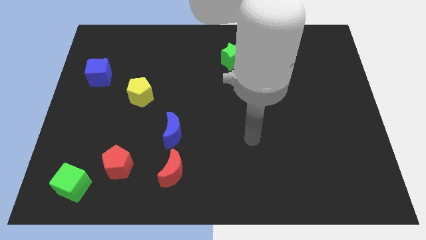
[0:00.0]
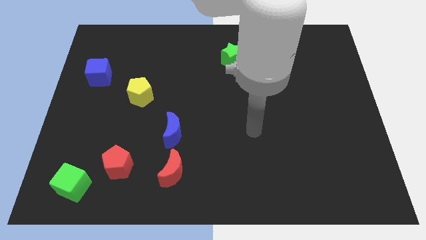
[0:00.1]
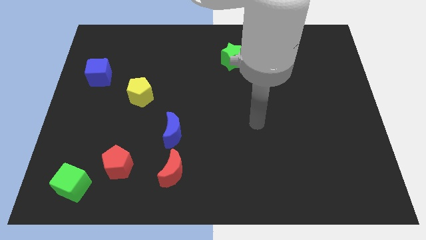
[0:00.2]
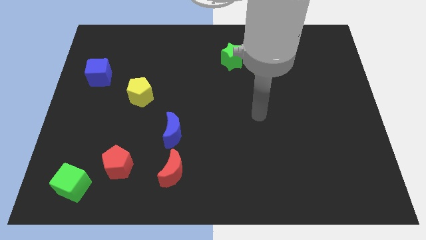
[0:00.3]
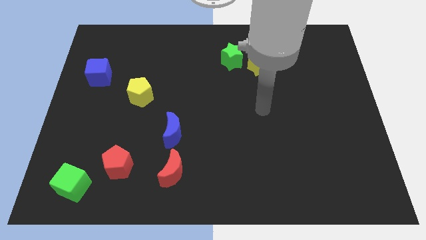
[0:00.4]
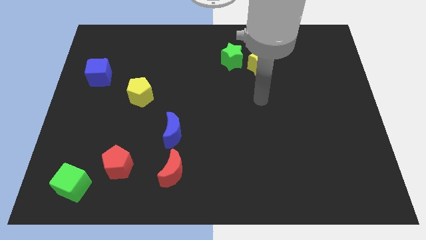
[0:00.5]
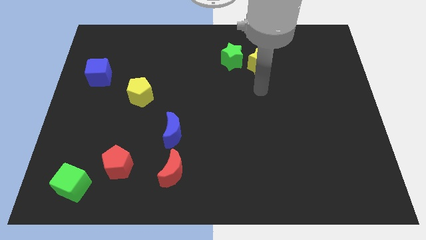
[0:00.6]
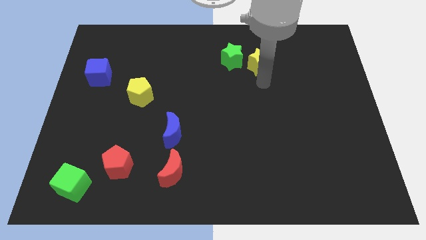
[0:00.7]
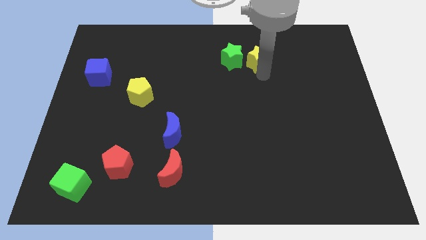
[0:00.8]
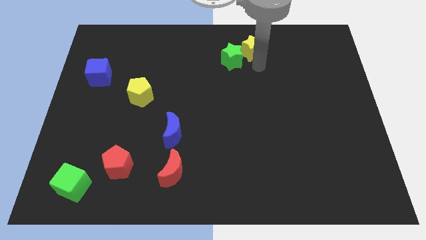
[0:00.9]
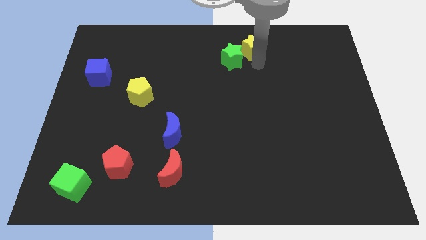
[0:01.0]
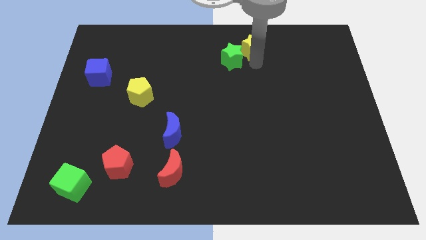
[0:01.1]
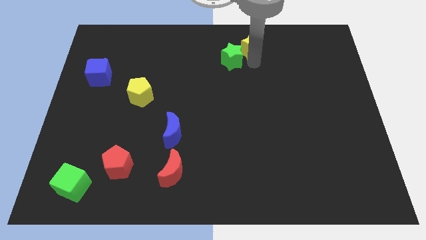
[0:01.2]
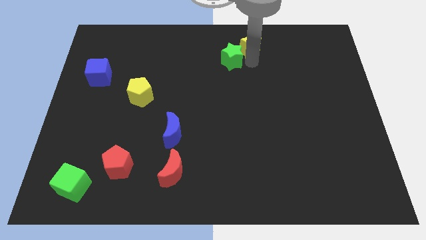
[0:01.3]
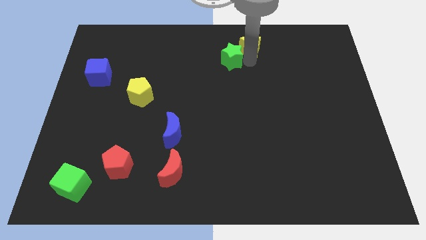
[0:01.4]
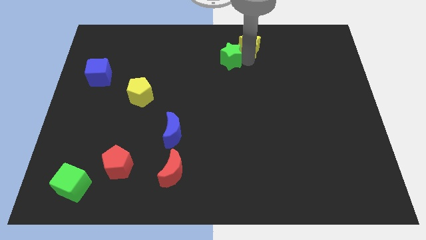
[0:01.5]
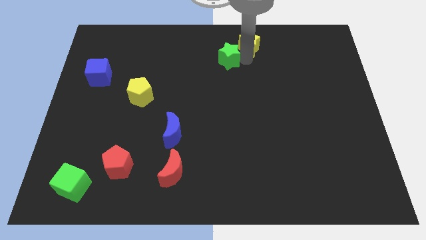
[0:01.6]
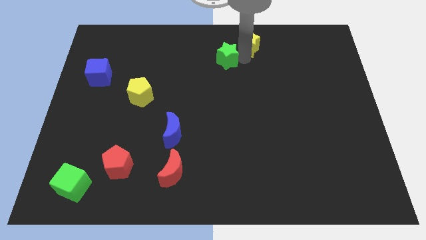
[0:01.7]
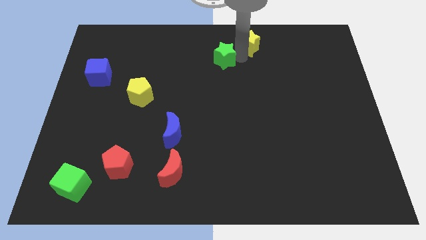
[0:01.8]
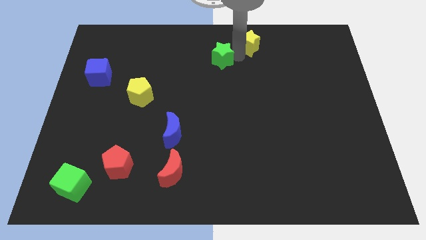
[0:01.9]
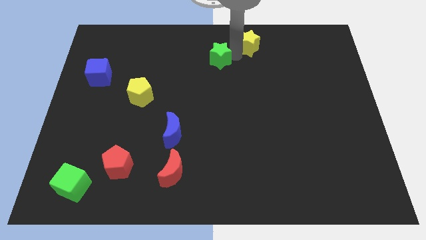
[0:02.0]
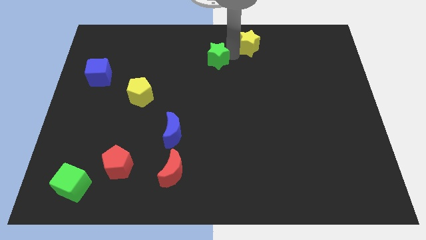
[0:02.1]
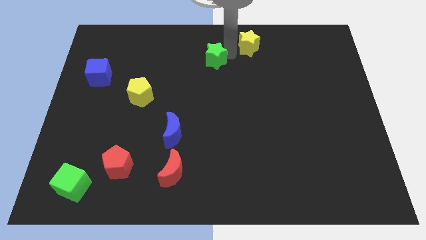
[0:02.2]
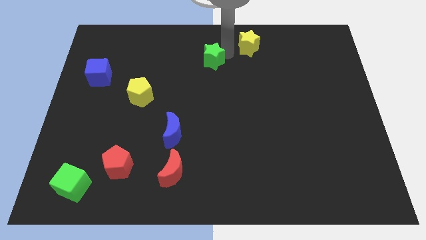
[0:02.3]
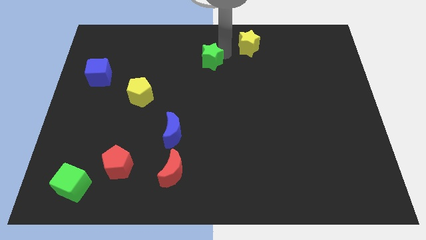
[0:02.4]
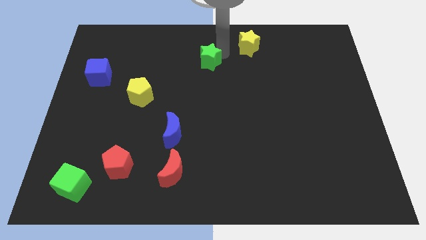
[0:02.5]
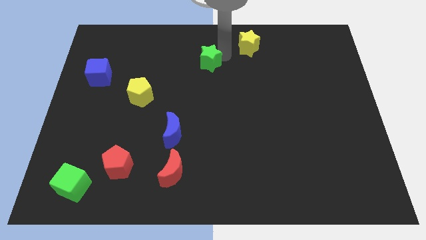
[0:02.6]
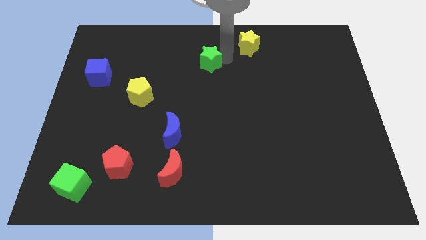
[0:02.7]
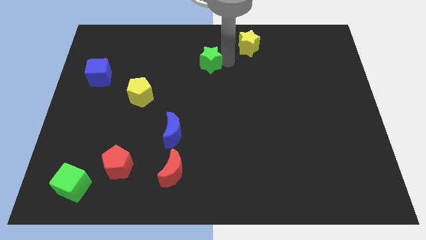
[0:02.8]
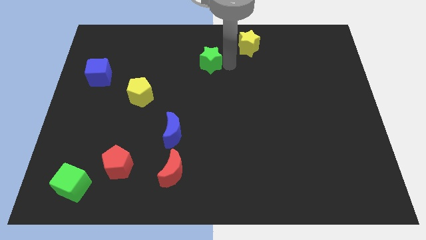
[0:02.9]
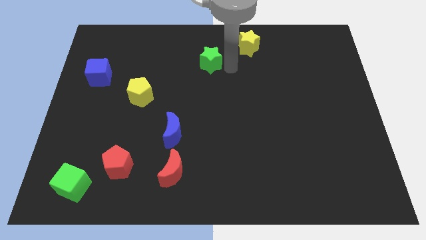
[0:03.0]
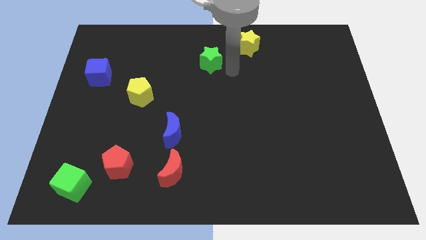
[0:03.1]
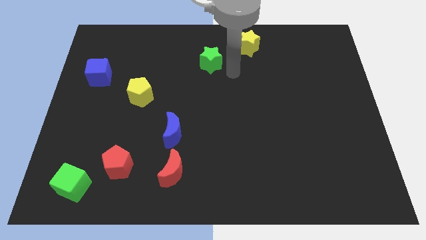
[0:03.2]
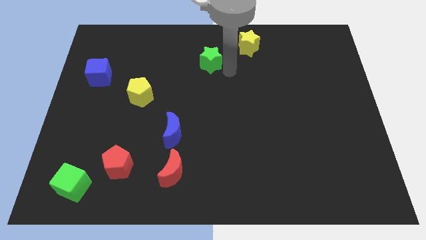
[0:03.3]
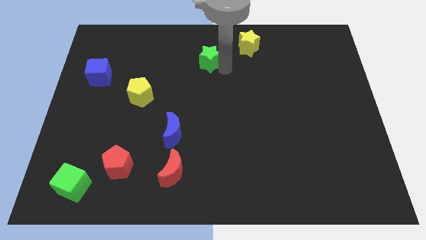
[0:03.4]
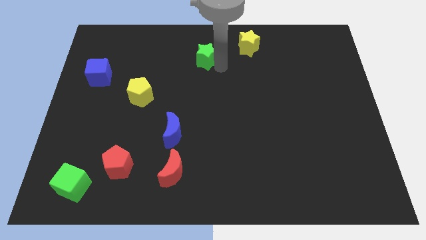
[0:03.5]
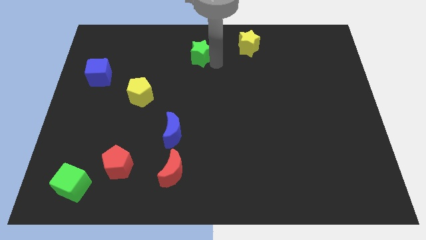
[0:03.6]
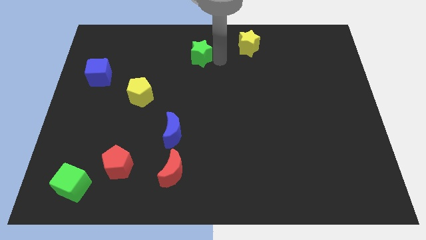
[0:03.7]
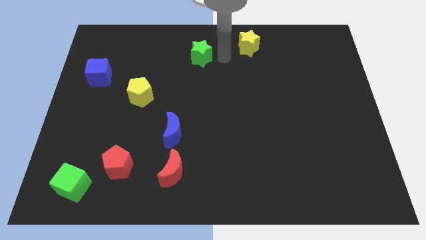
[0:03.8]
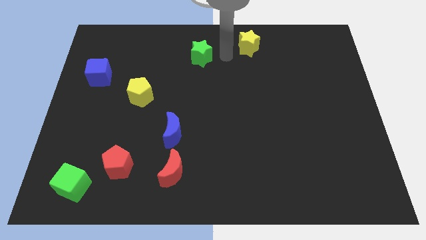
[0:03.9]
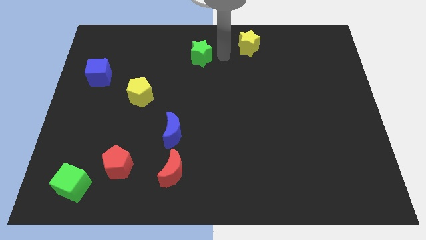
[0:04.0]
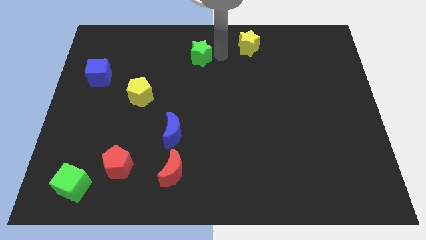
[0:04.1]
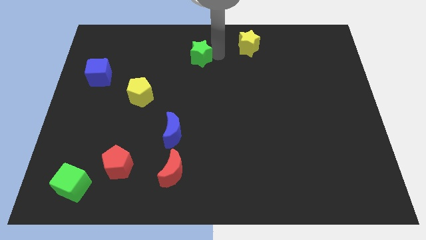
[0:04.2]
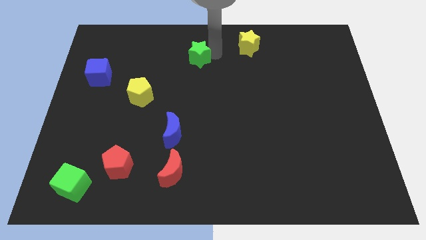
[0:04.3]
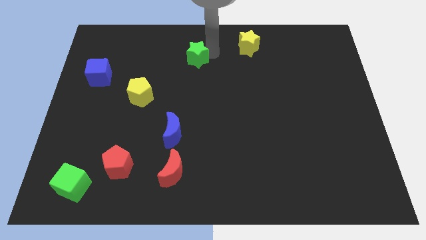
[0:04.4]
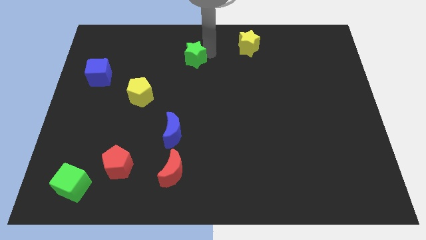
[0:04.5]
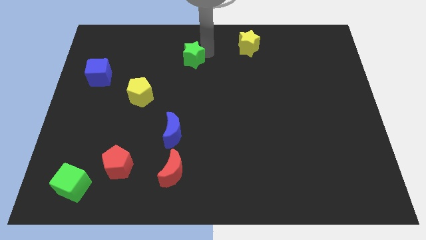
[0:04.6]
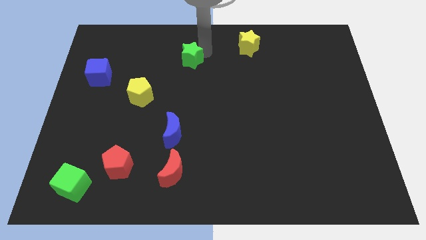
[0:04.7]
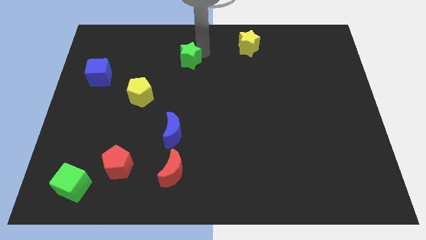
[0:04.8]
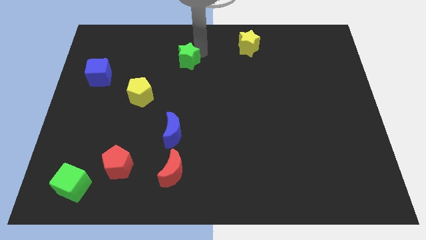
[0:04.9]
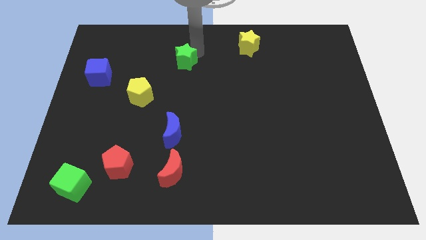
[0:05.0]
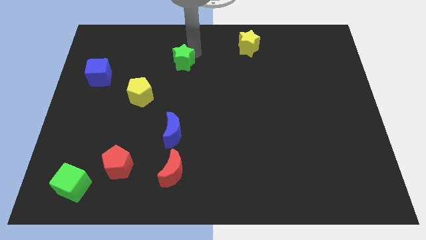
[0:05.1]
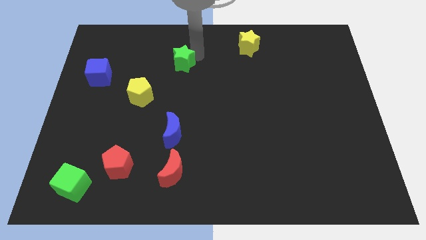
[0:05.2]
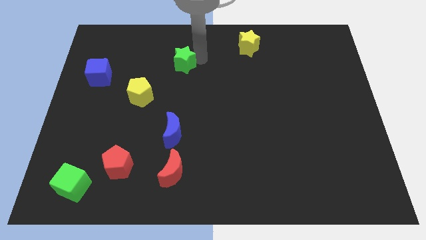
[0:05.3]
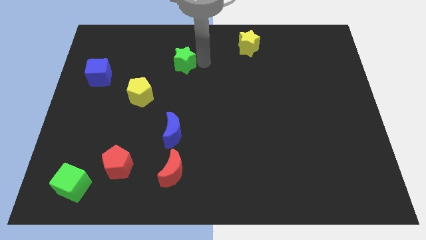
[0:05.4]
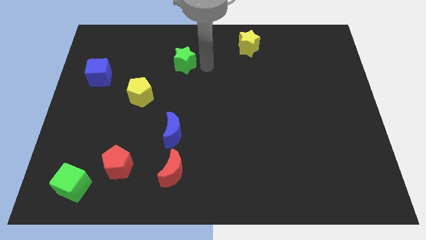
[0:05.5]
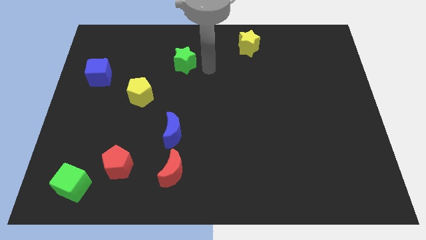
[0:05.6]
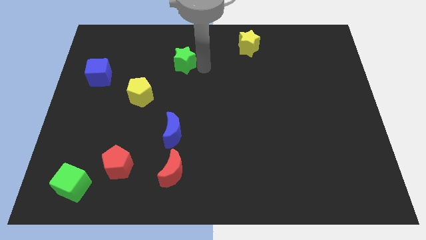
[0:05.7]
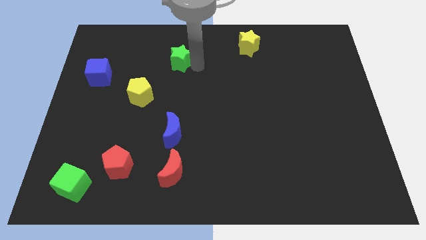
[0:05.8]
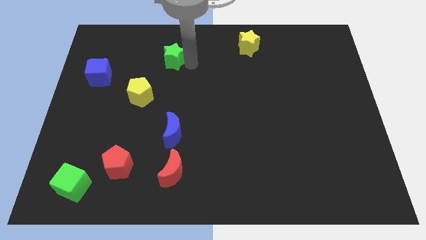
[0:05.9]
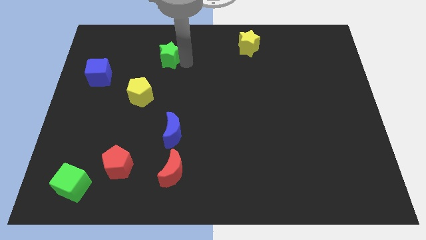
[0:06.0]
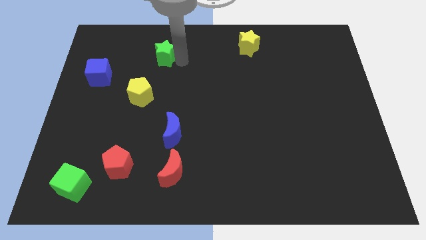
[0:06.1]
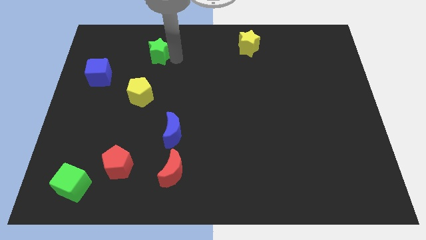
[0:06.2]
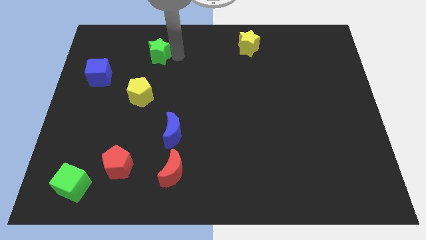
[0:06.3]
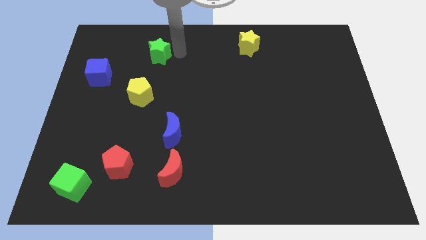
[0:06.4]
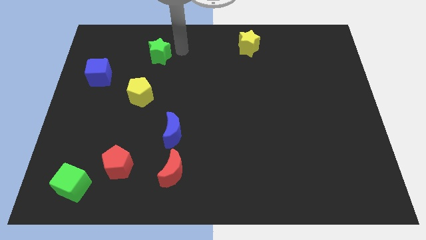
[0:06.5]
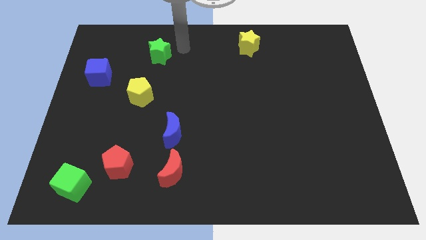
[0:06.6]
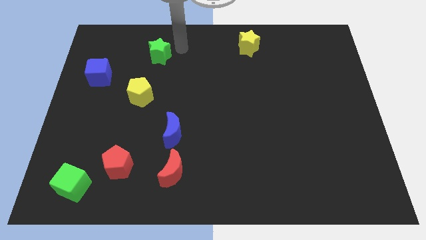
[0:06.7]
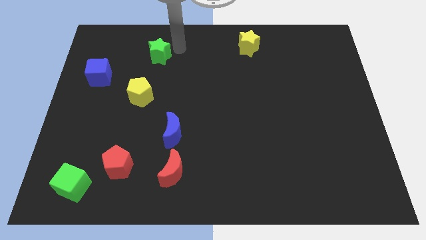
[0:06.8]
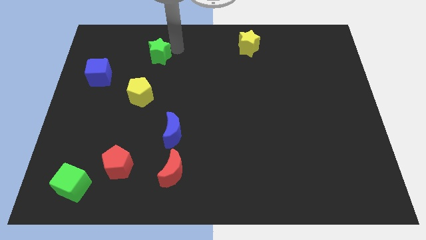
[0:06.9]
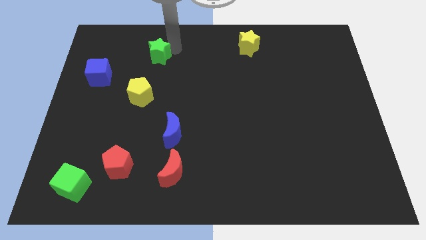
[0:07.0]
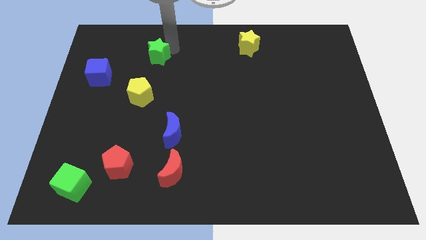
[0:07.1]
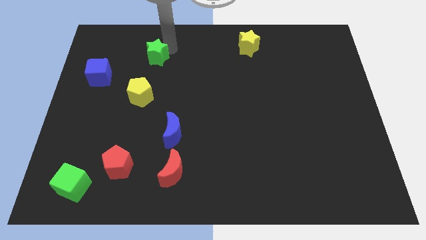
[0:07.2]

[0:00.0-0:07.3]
slide the green star to the left

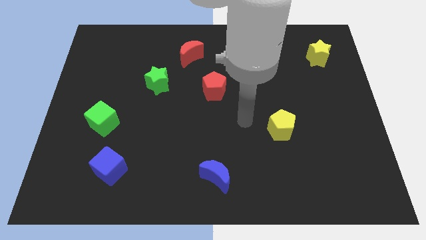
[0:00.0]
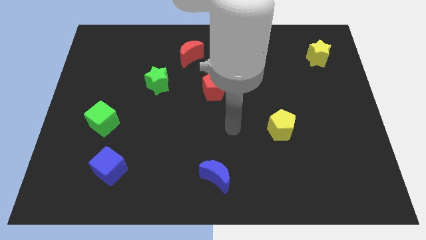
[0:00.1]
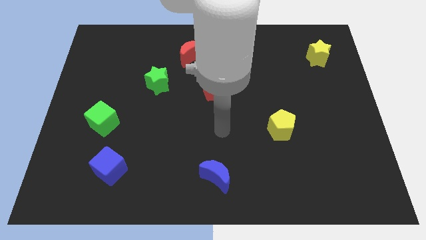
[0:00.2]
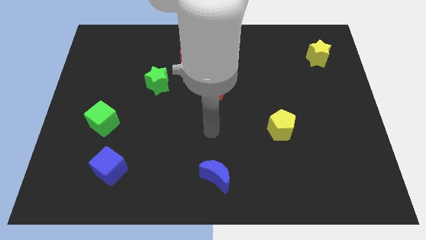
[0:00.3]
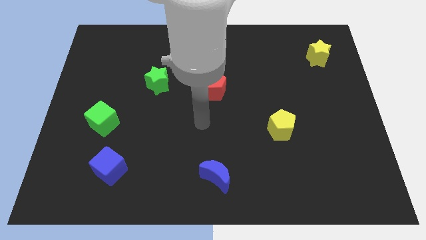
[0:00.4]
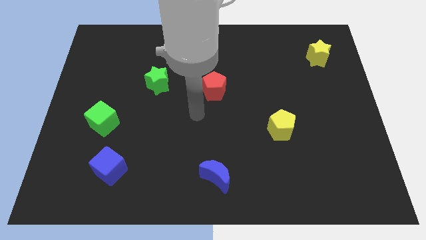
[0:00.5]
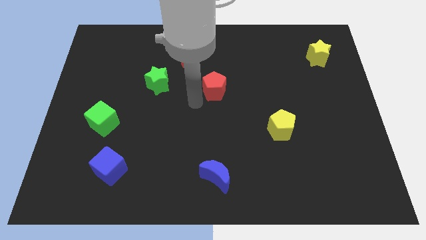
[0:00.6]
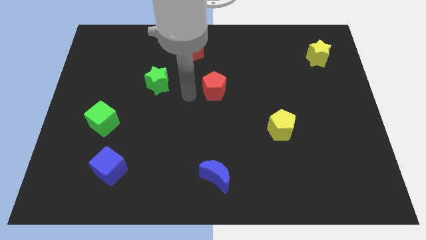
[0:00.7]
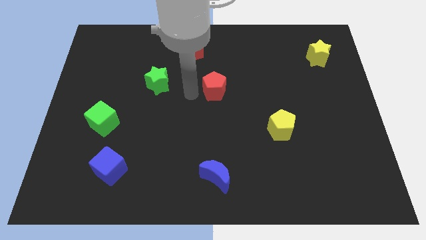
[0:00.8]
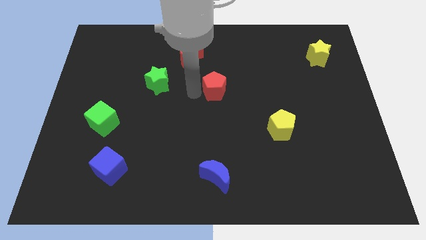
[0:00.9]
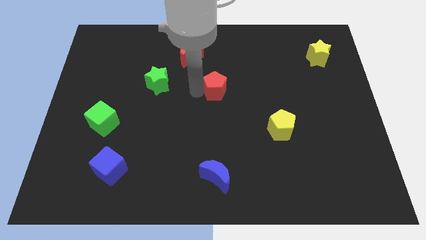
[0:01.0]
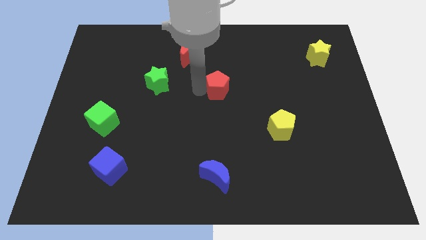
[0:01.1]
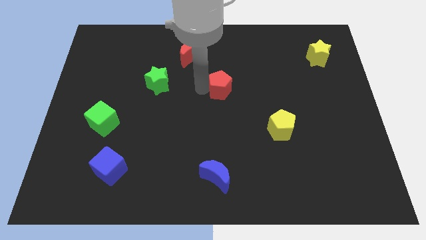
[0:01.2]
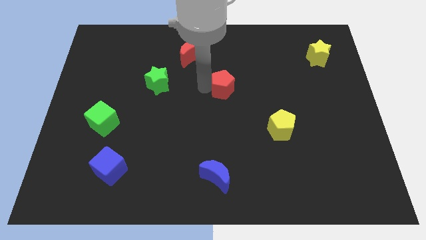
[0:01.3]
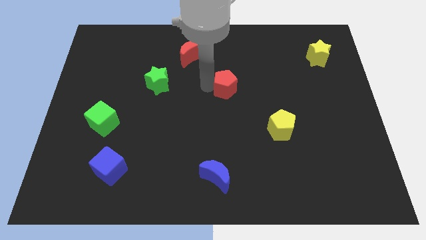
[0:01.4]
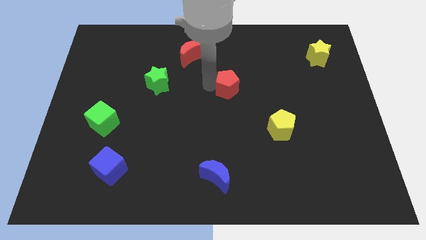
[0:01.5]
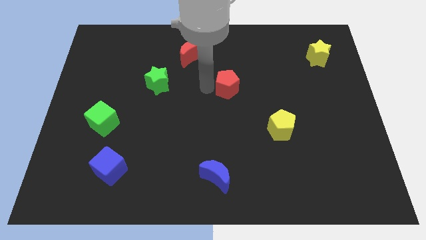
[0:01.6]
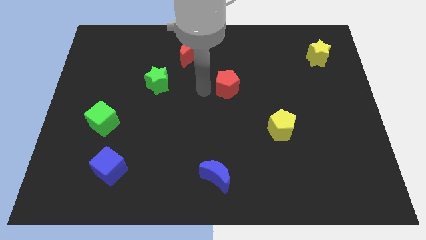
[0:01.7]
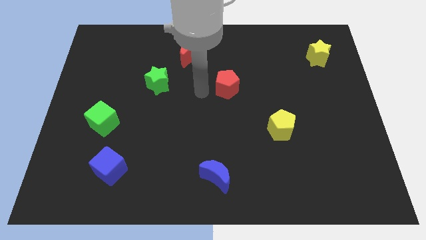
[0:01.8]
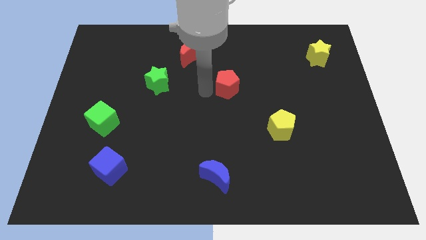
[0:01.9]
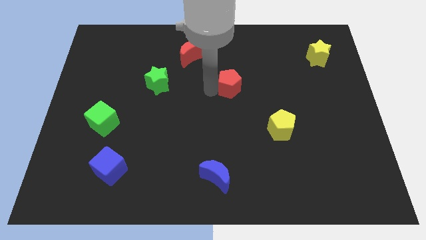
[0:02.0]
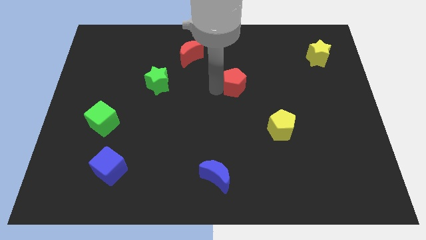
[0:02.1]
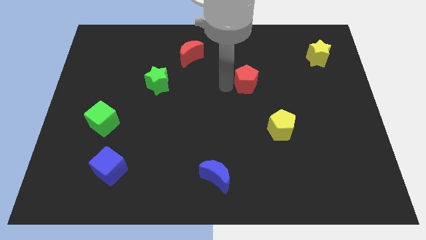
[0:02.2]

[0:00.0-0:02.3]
push the red pentagon right a bit
